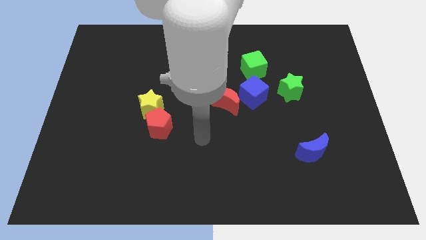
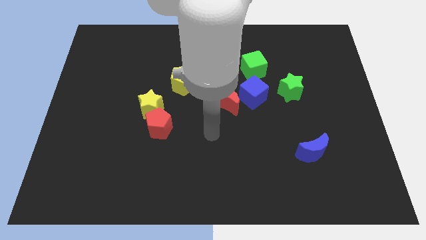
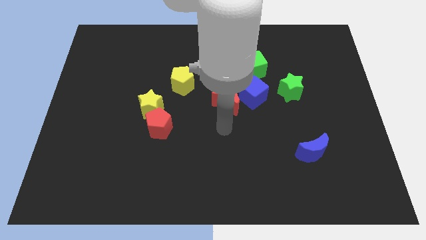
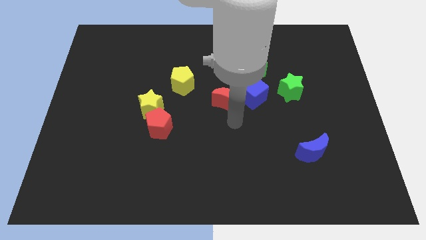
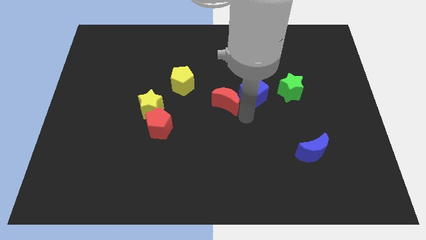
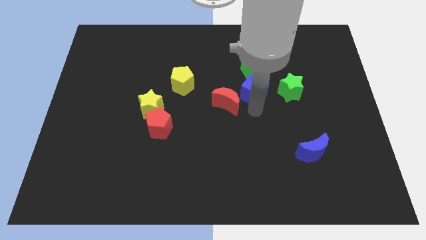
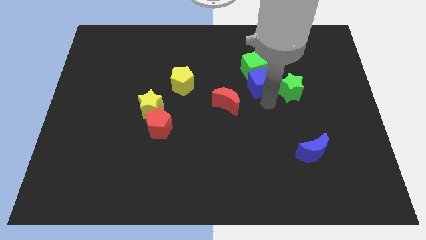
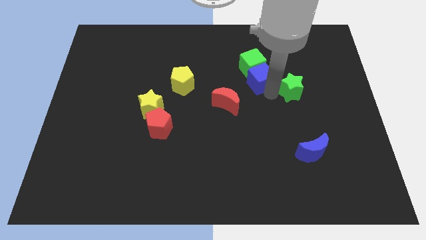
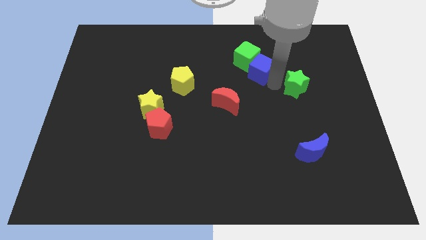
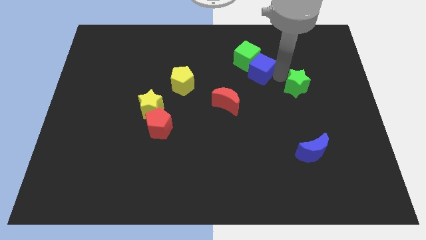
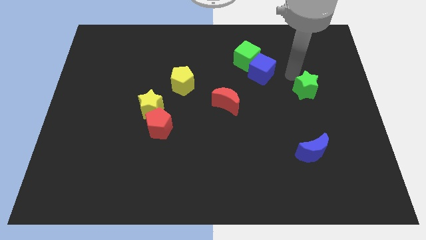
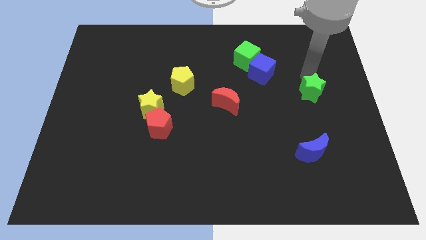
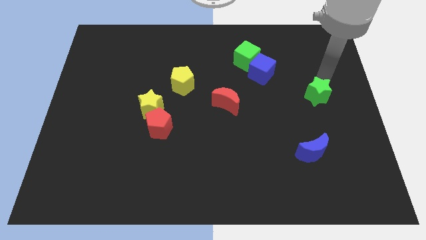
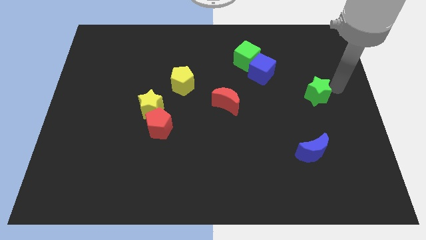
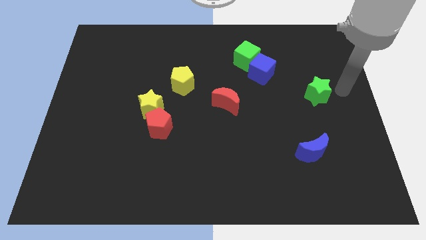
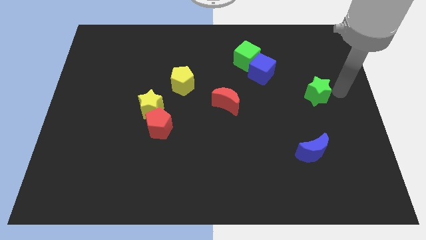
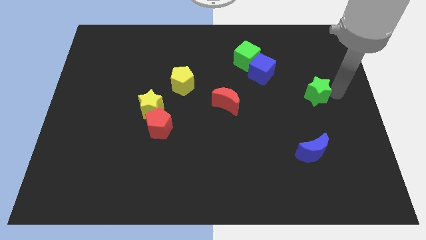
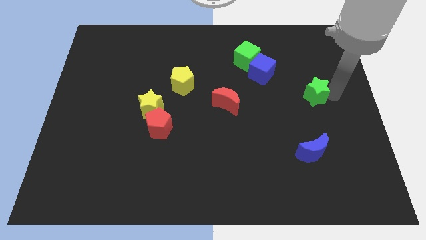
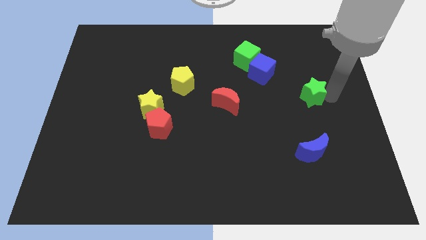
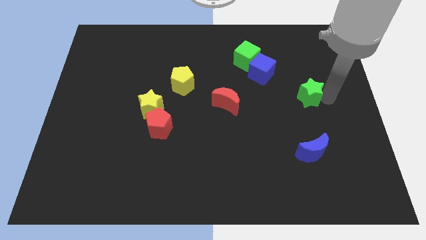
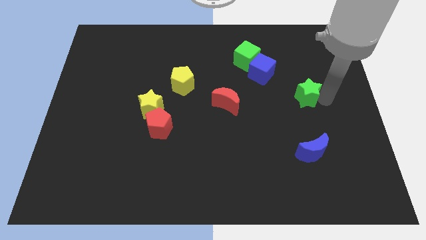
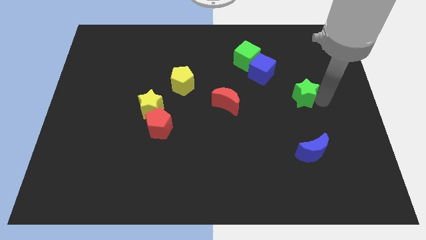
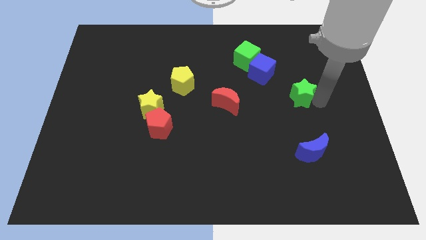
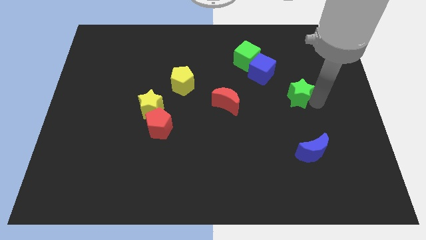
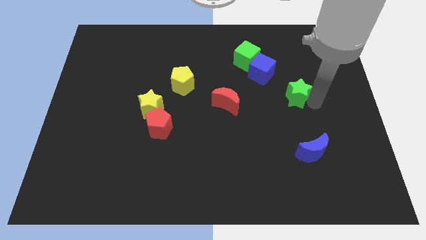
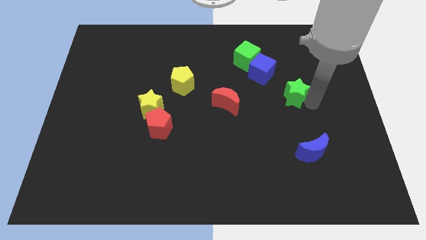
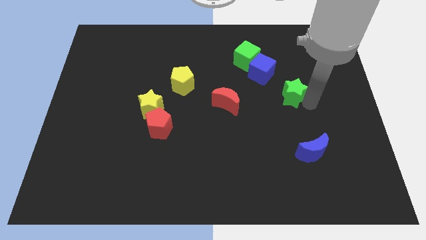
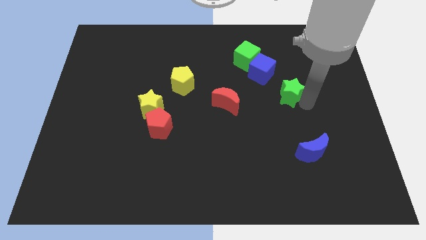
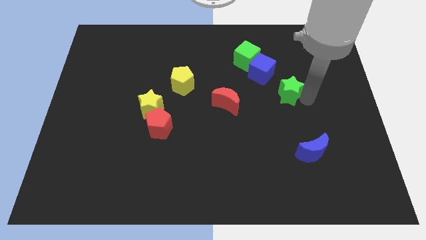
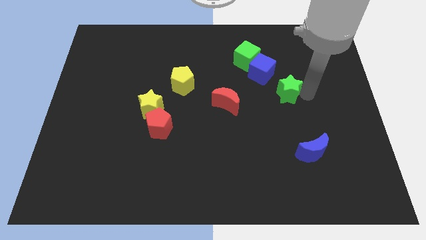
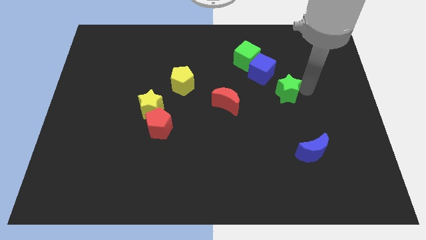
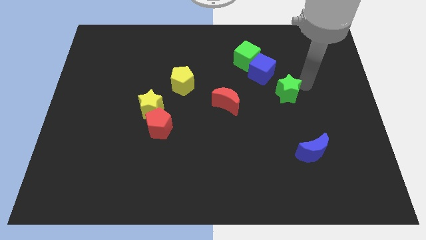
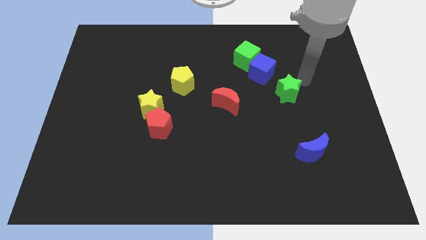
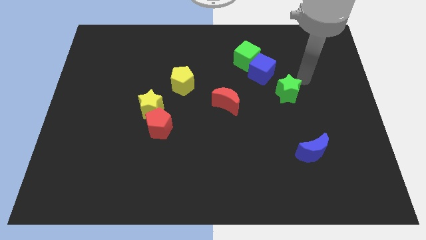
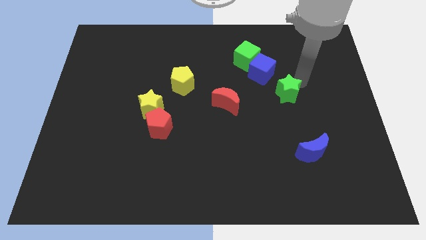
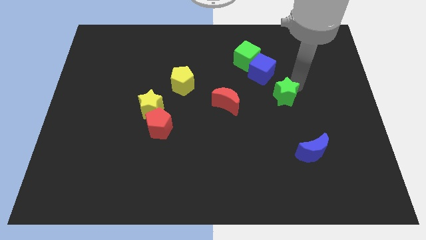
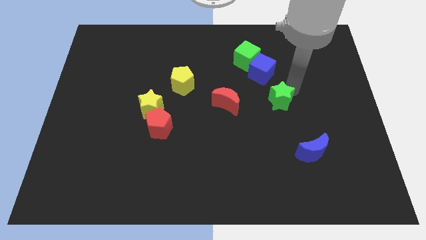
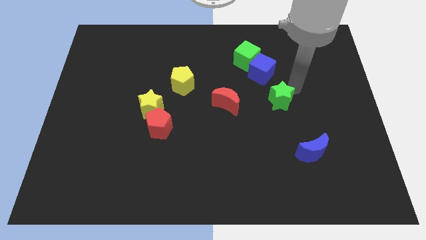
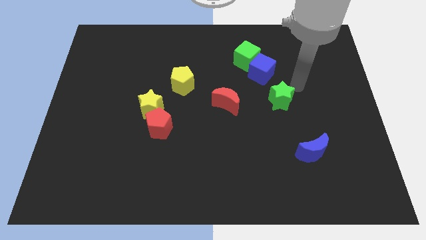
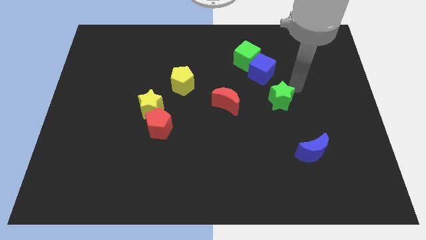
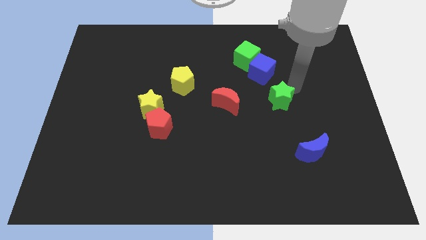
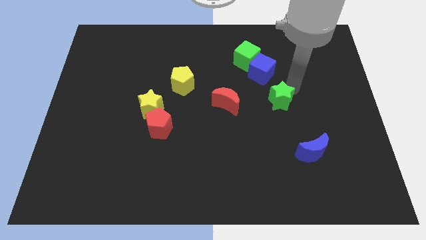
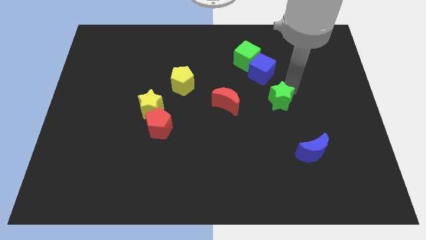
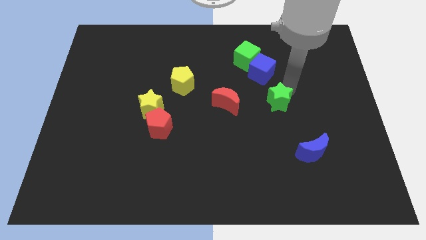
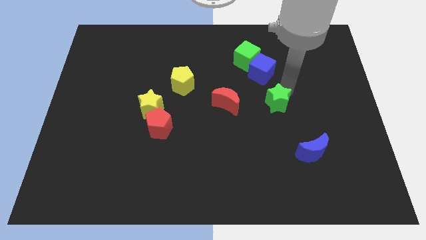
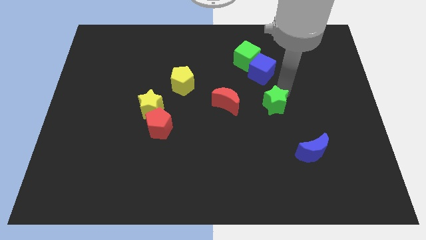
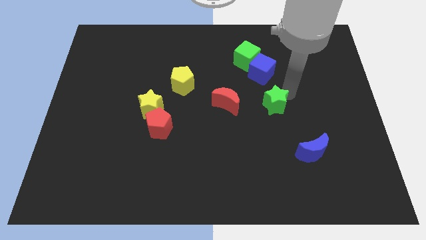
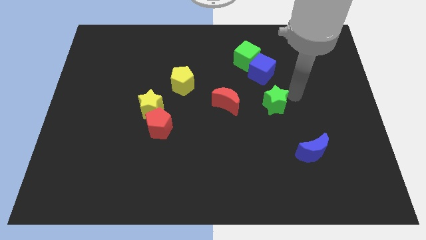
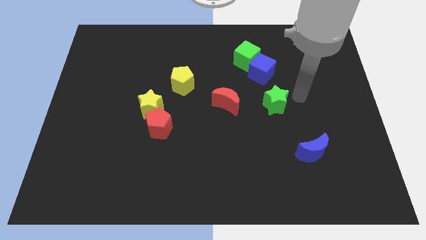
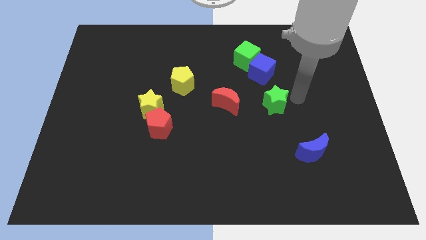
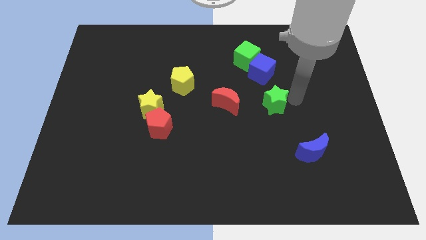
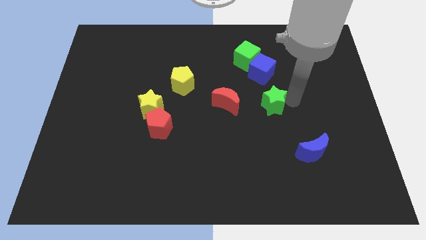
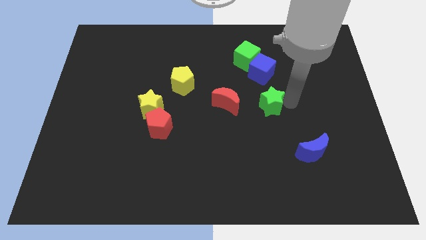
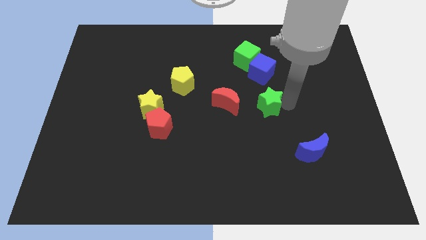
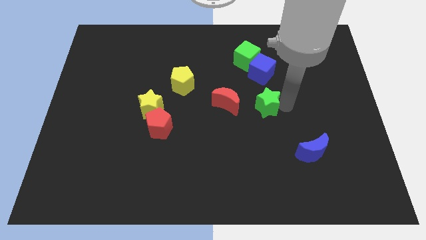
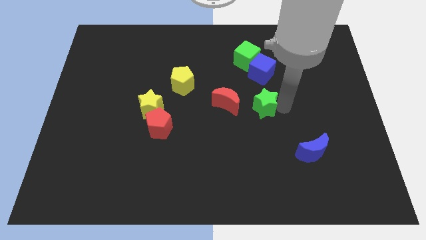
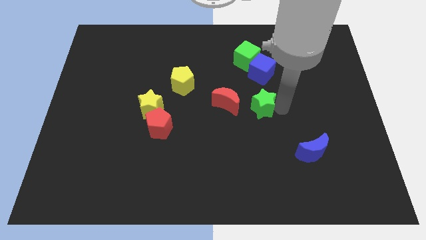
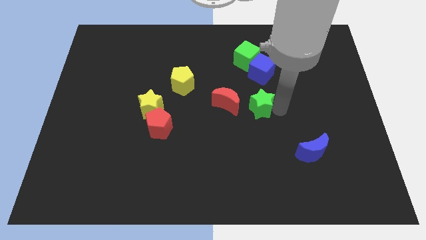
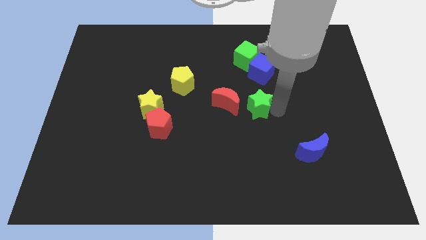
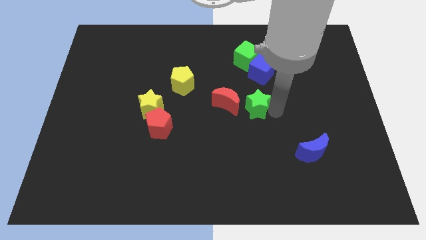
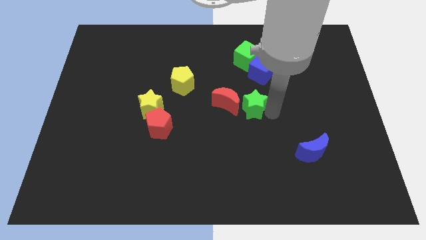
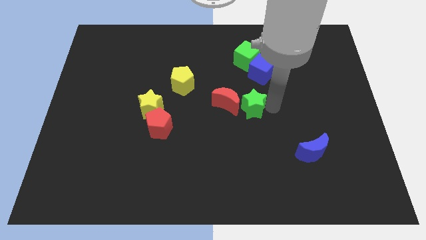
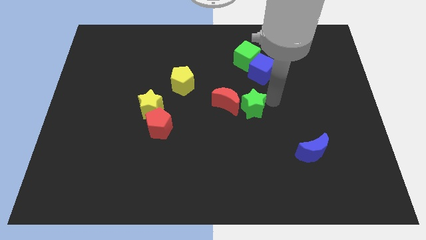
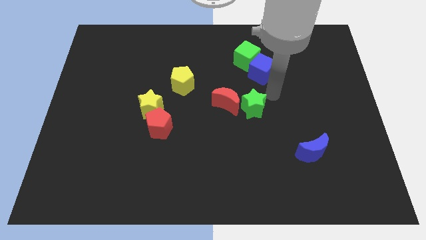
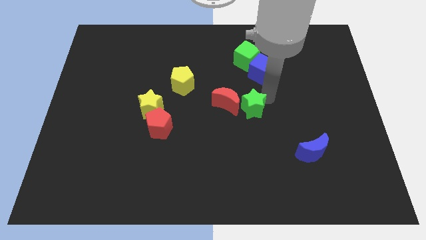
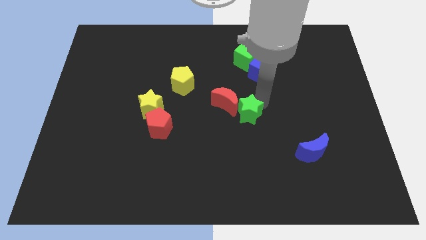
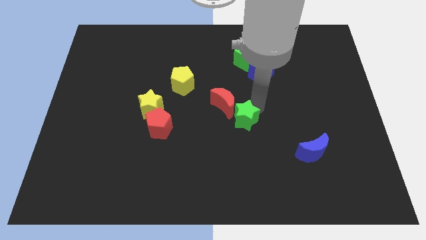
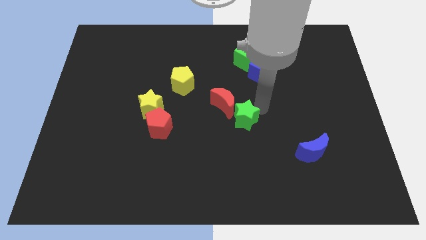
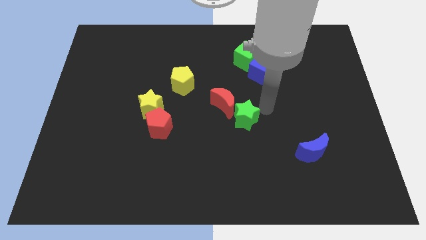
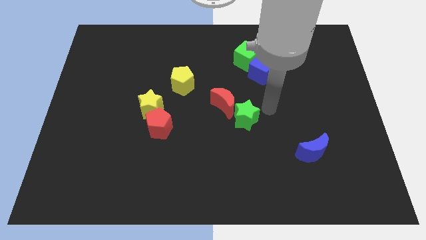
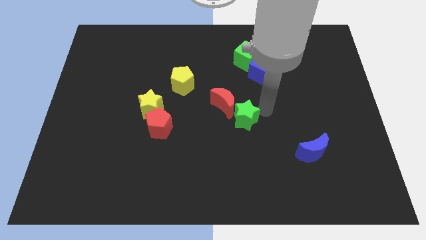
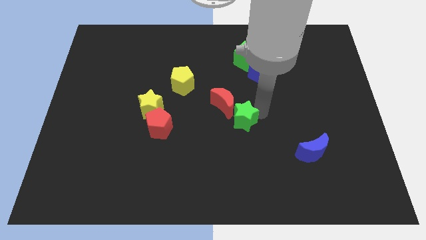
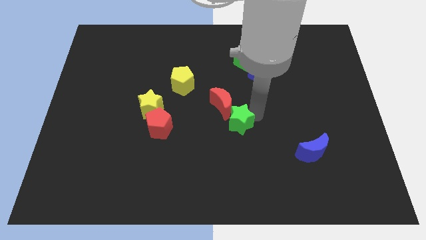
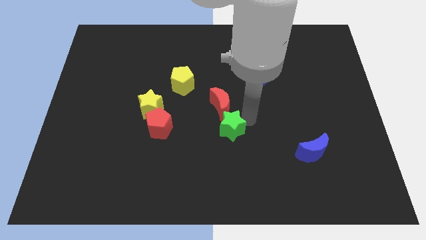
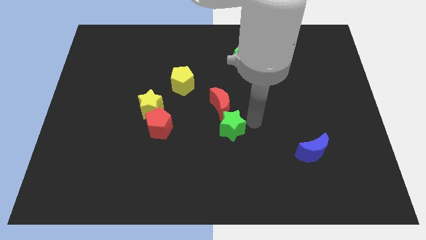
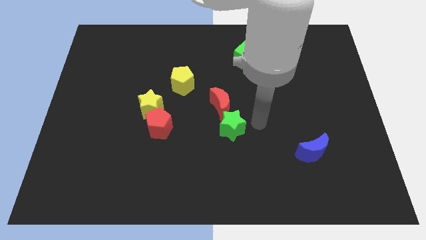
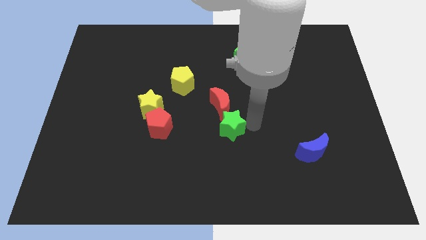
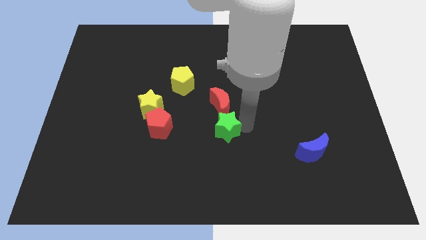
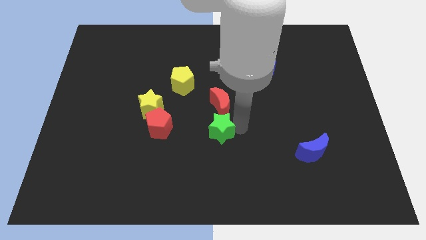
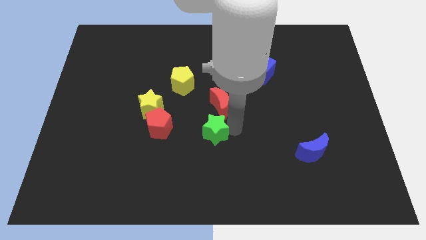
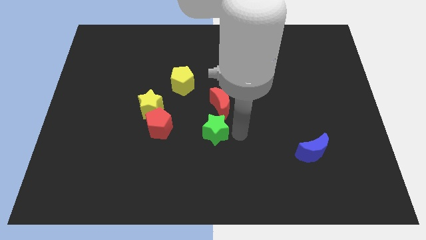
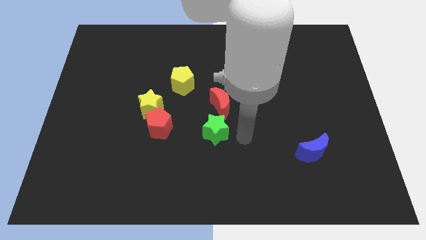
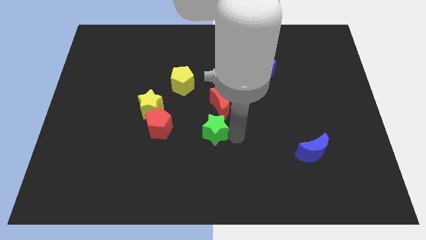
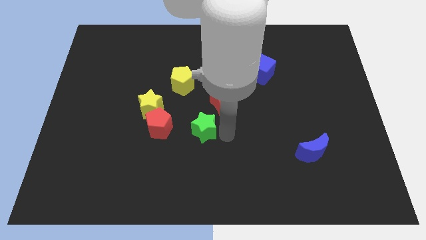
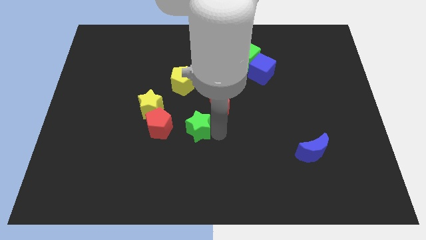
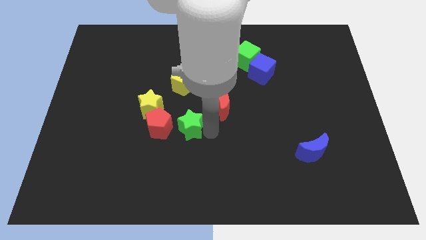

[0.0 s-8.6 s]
push the green star diagonally down and to the right of the yellow star
